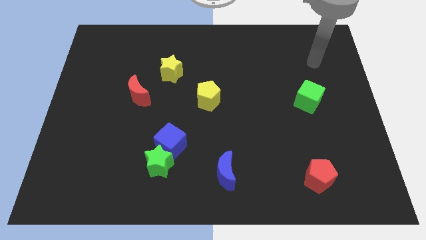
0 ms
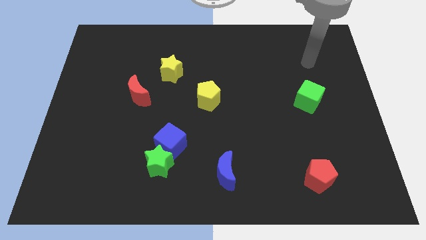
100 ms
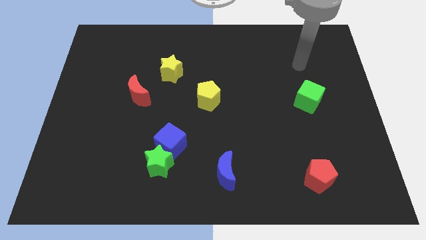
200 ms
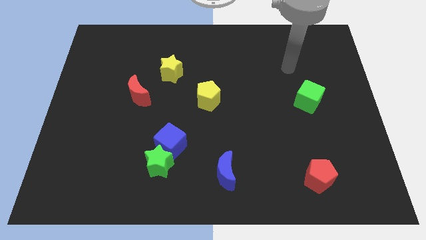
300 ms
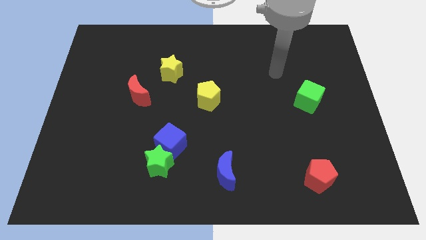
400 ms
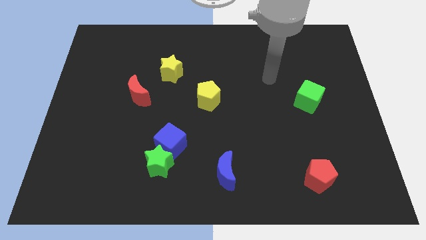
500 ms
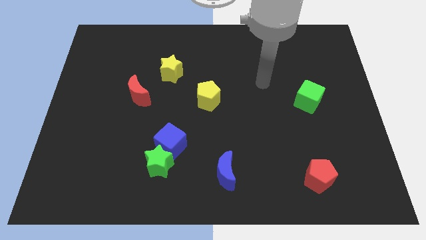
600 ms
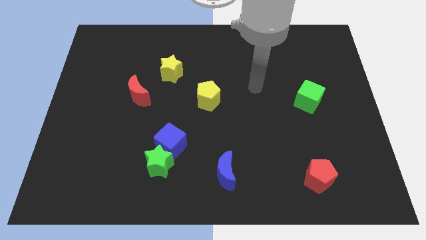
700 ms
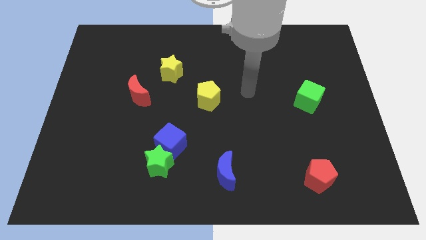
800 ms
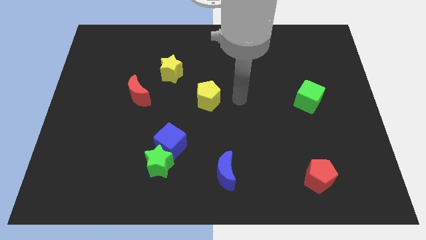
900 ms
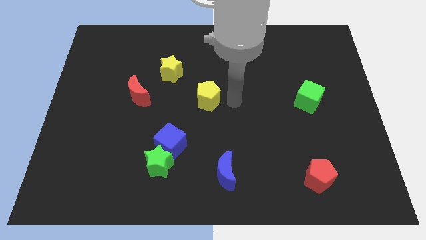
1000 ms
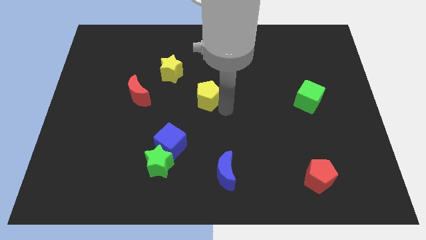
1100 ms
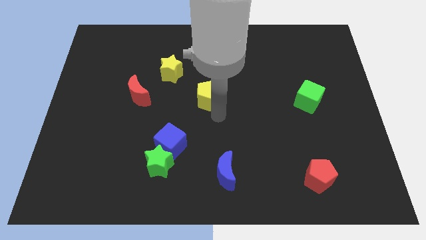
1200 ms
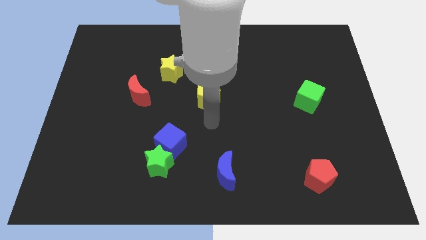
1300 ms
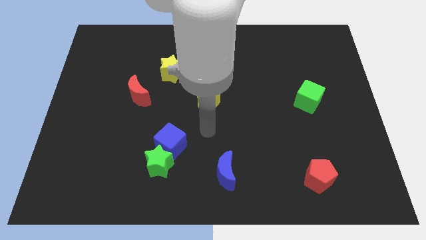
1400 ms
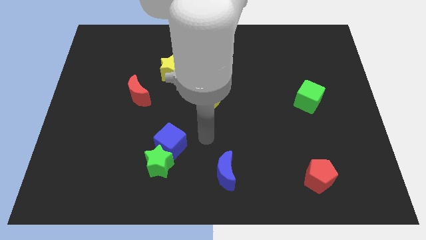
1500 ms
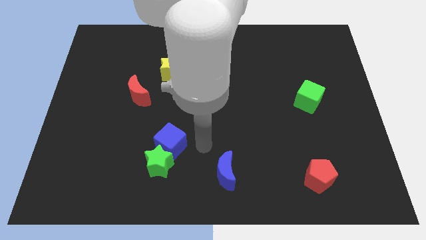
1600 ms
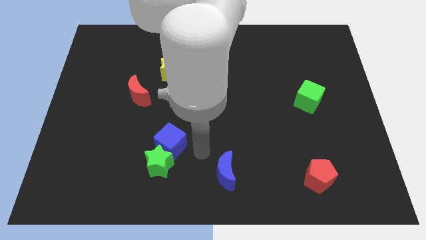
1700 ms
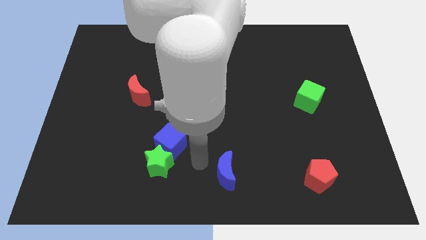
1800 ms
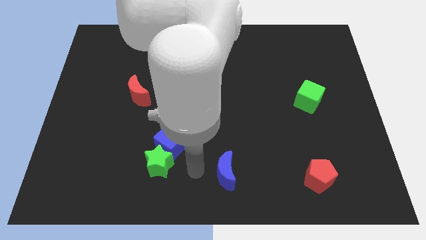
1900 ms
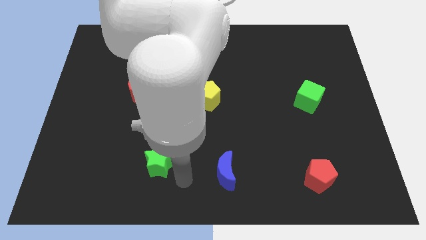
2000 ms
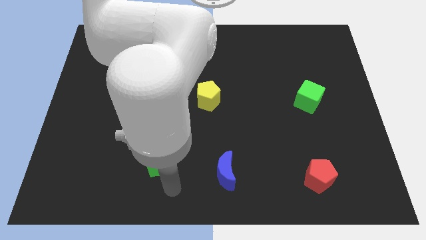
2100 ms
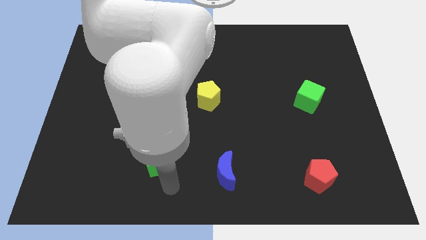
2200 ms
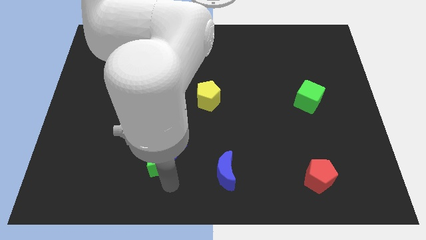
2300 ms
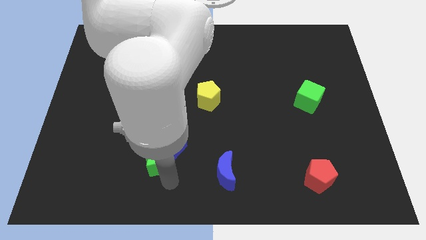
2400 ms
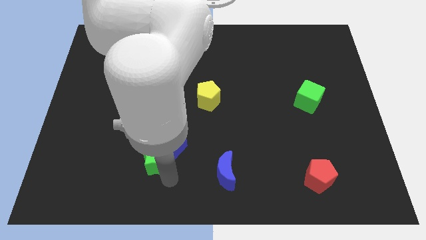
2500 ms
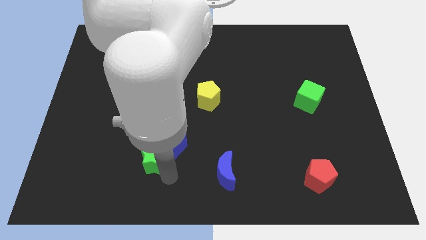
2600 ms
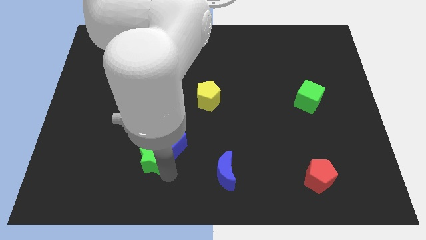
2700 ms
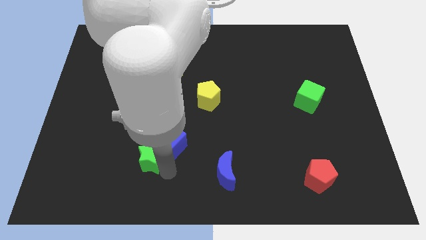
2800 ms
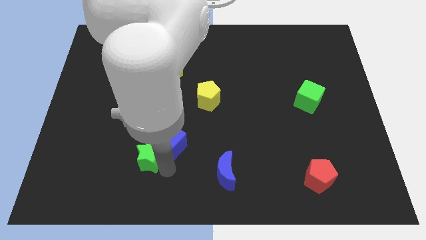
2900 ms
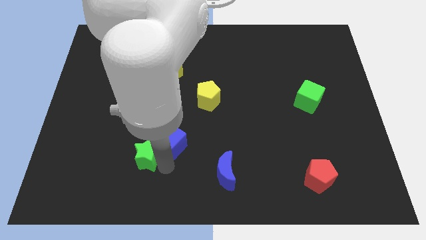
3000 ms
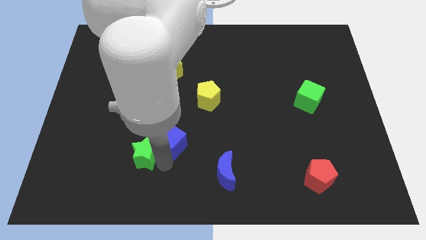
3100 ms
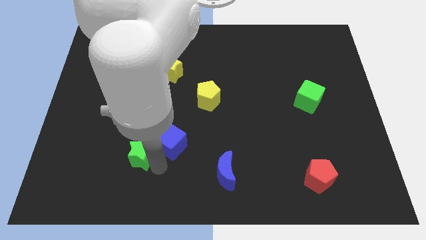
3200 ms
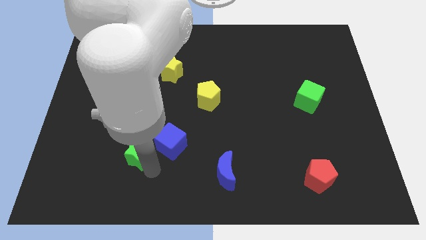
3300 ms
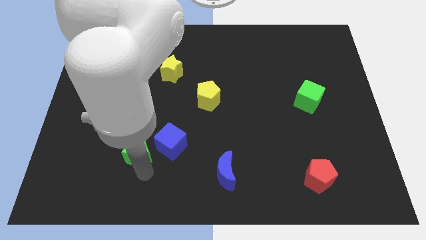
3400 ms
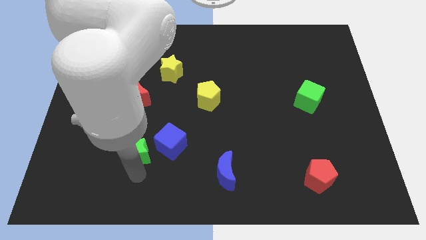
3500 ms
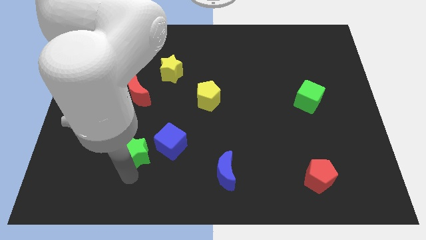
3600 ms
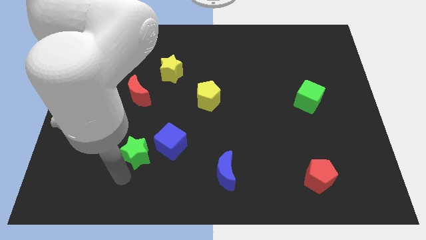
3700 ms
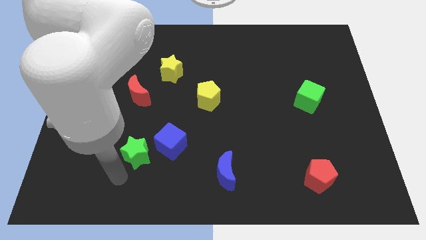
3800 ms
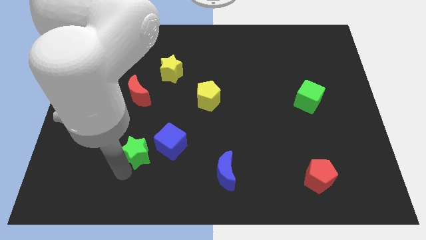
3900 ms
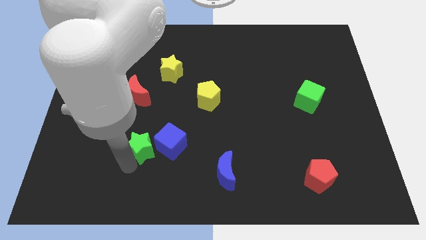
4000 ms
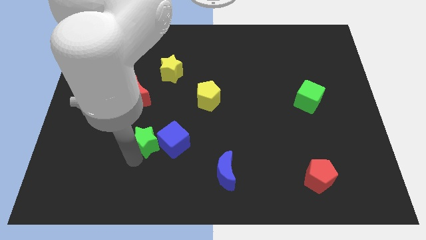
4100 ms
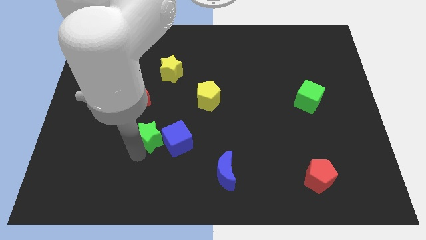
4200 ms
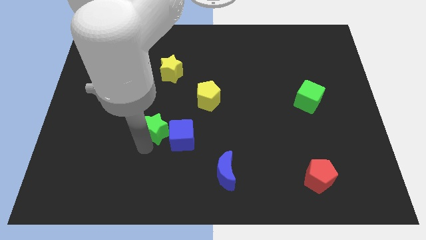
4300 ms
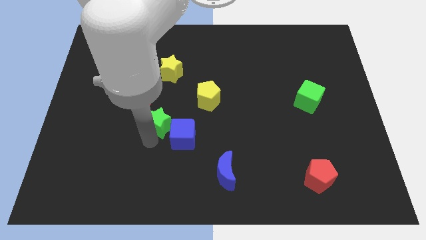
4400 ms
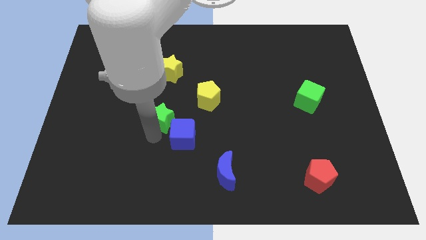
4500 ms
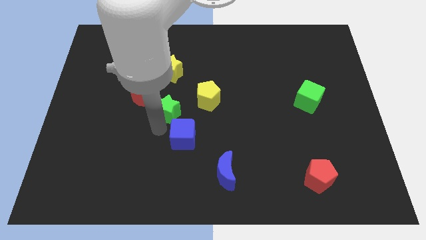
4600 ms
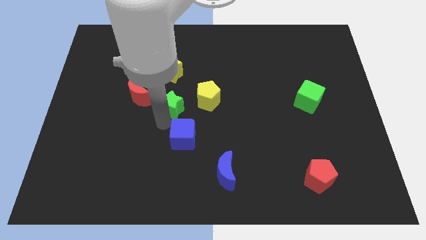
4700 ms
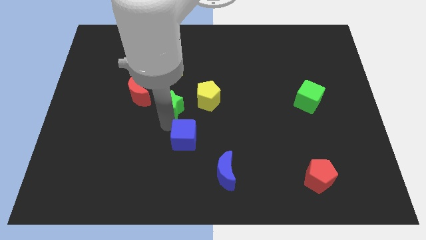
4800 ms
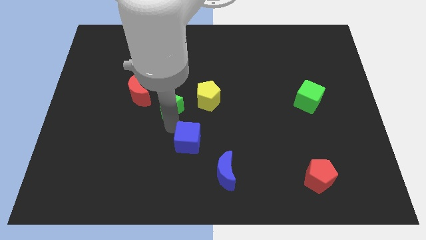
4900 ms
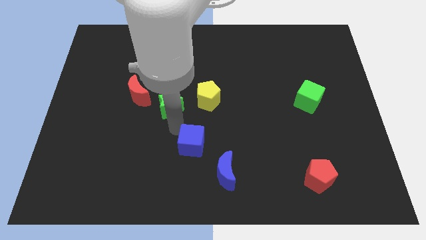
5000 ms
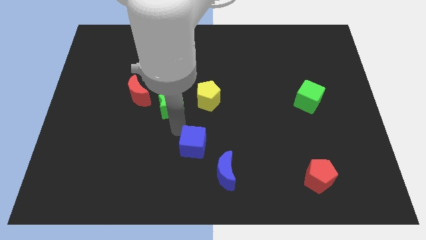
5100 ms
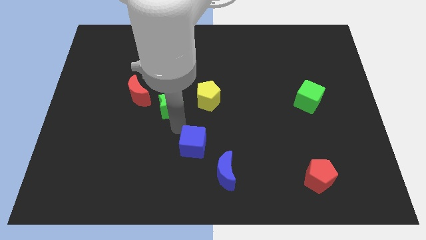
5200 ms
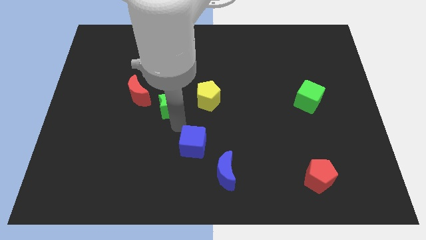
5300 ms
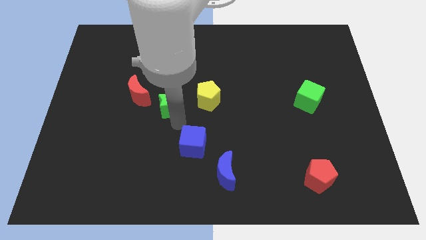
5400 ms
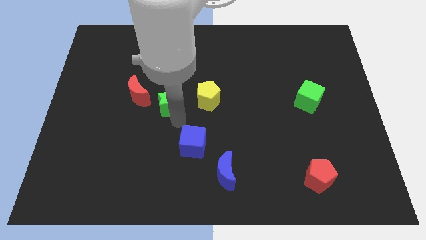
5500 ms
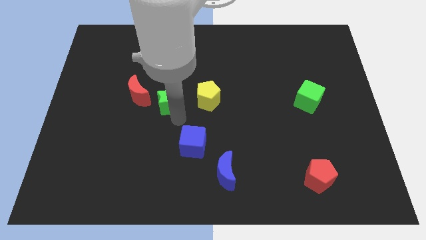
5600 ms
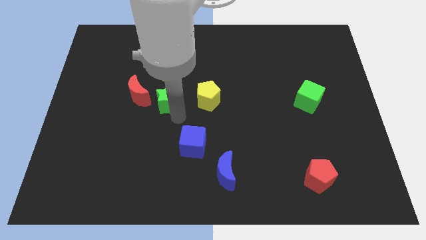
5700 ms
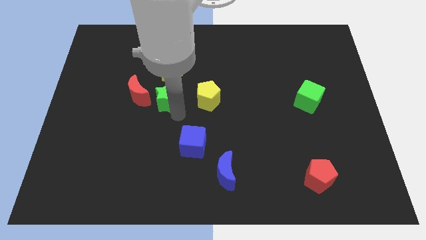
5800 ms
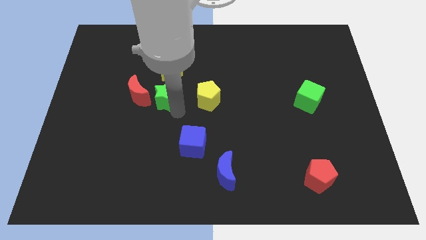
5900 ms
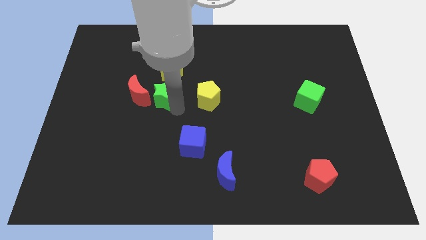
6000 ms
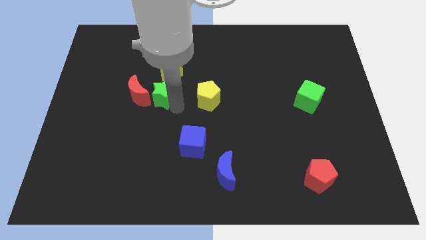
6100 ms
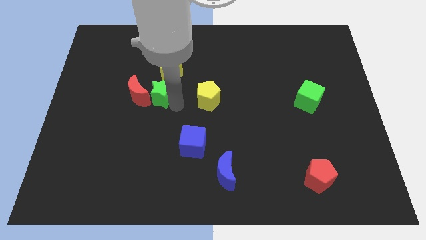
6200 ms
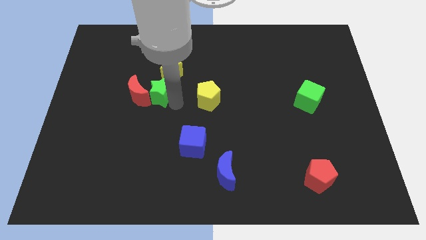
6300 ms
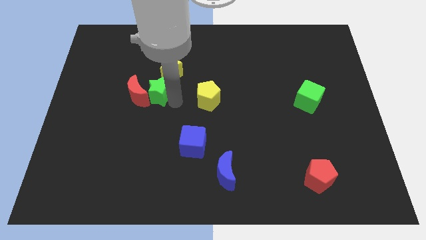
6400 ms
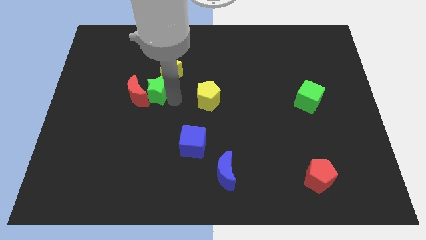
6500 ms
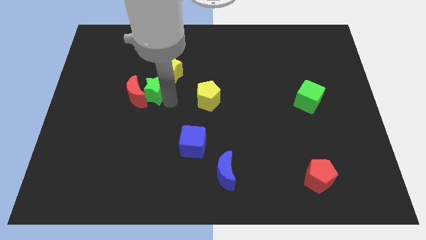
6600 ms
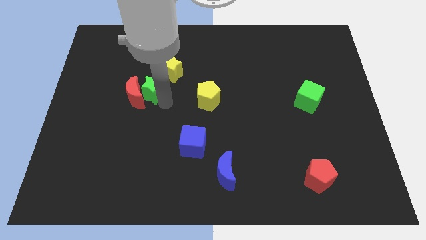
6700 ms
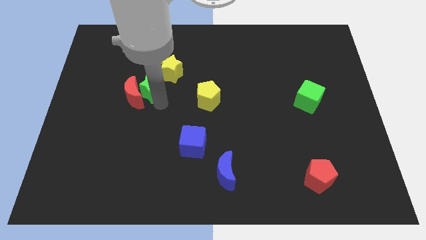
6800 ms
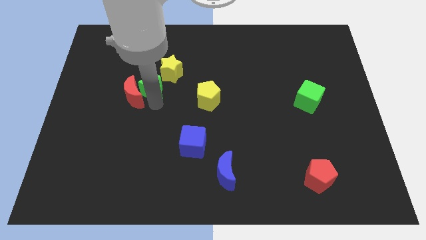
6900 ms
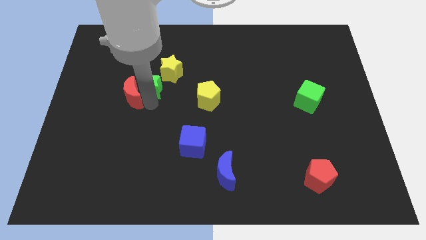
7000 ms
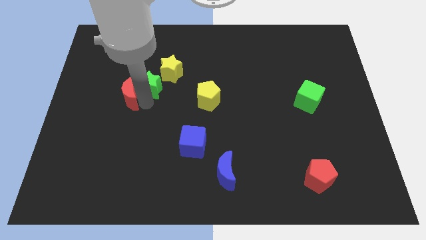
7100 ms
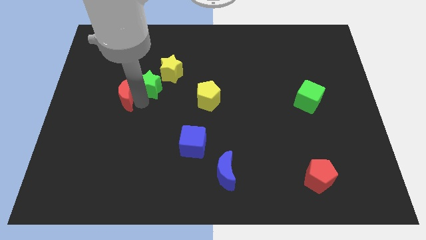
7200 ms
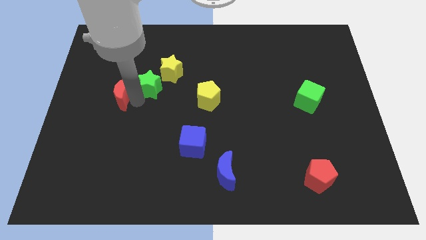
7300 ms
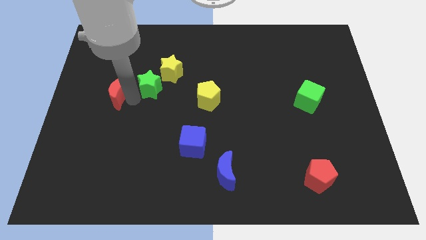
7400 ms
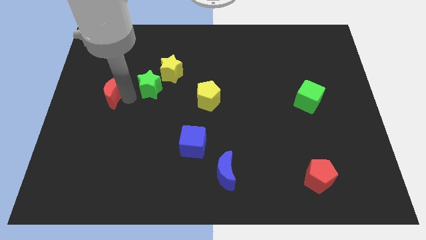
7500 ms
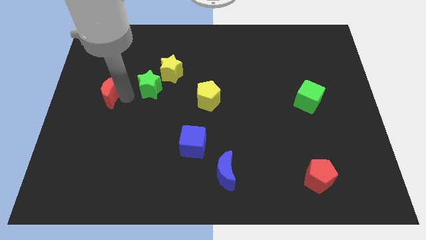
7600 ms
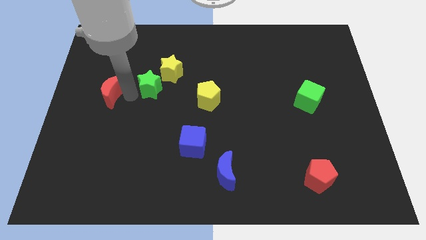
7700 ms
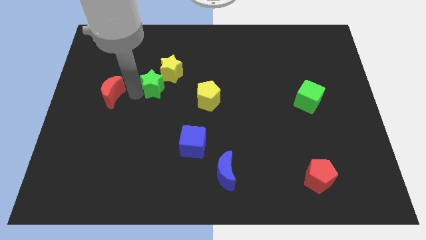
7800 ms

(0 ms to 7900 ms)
push the green star close to the yellow star
